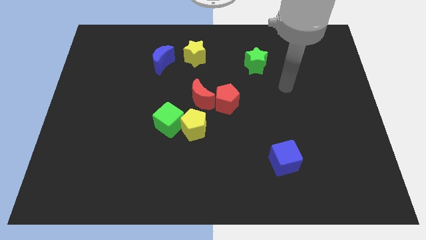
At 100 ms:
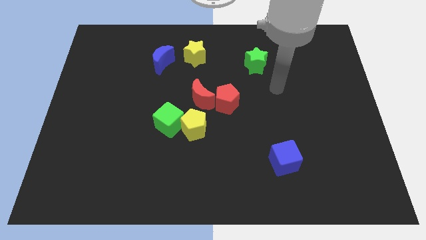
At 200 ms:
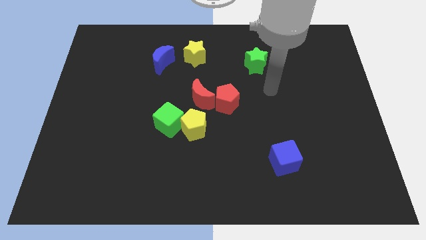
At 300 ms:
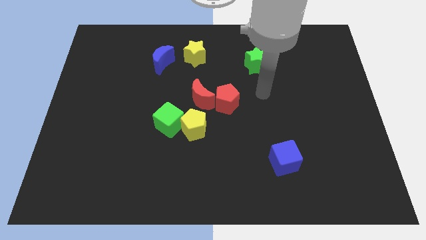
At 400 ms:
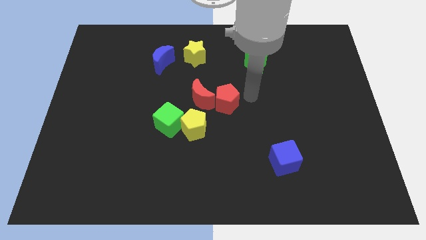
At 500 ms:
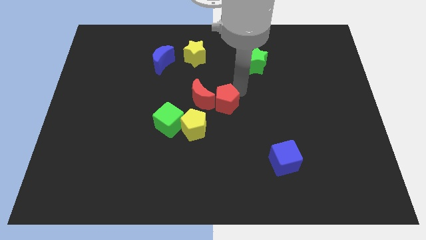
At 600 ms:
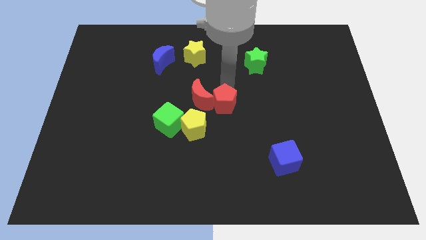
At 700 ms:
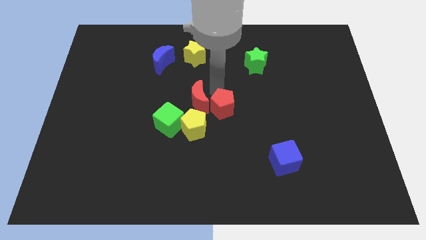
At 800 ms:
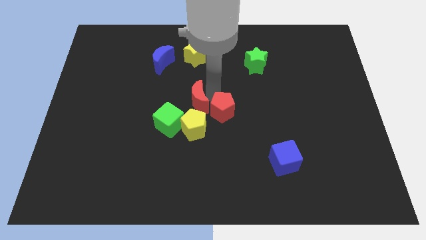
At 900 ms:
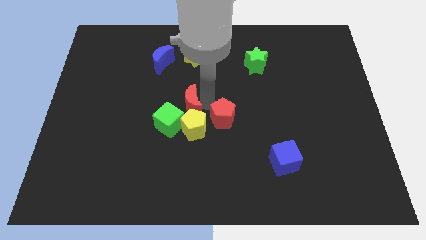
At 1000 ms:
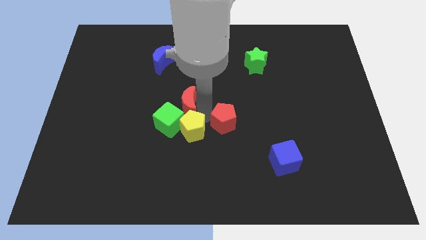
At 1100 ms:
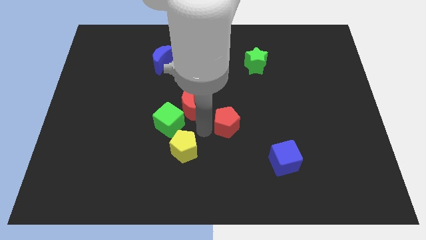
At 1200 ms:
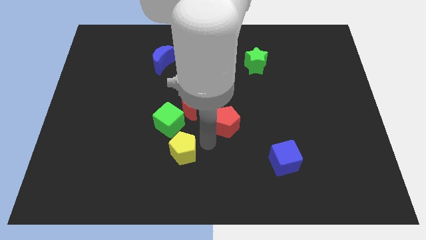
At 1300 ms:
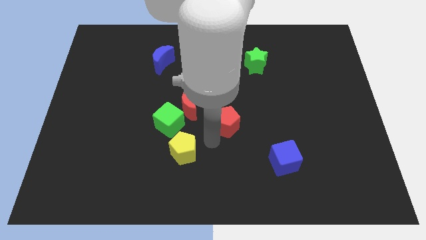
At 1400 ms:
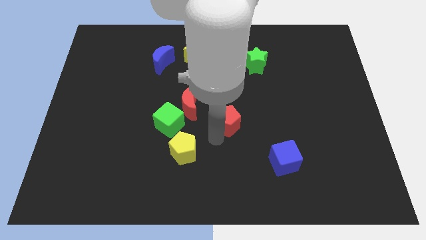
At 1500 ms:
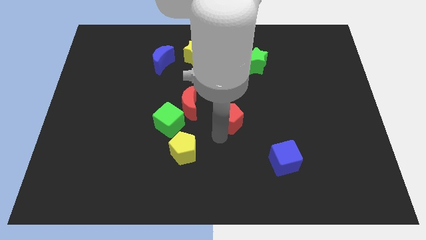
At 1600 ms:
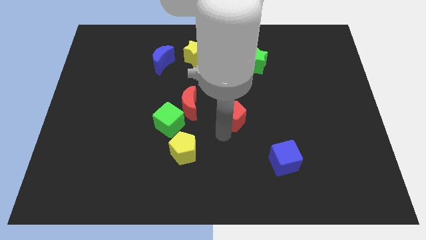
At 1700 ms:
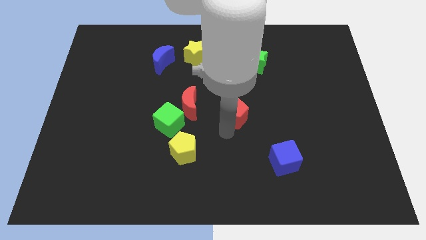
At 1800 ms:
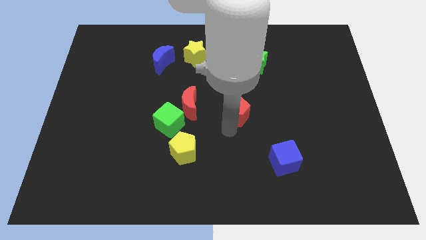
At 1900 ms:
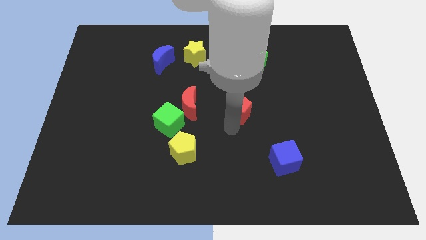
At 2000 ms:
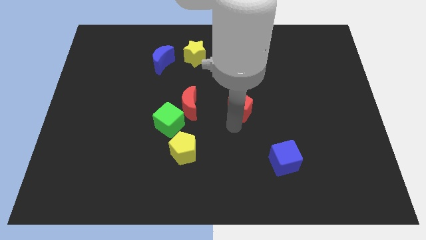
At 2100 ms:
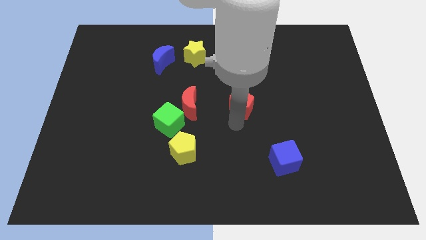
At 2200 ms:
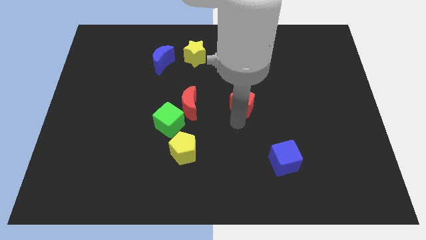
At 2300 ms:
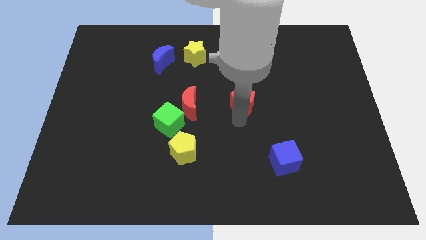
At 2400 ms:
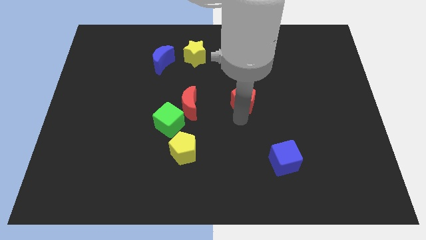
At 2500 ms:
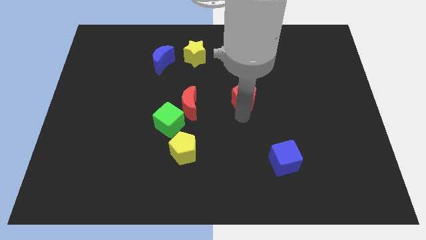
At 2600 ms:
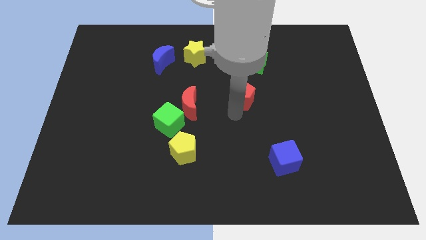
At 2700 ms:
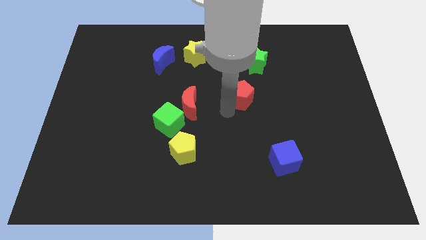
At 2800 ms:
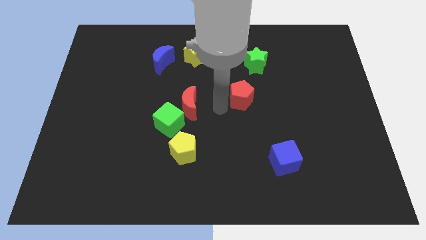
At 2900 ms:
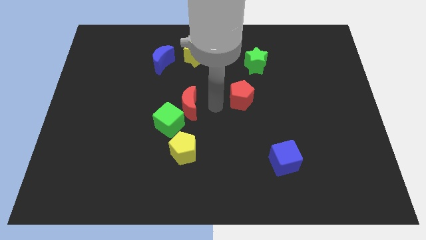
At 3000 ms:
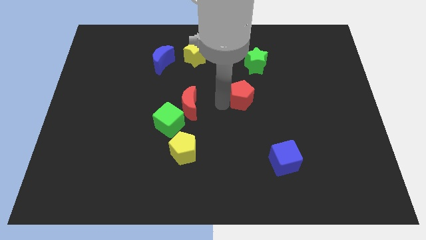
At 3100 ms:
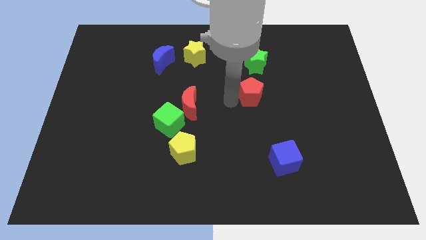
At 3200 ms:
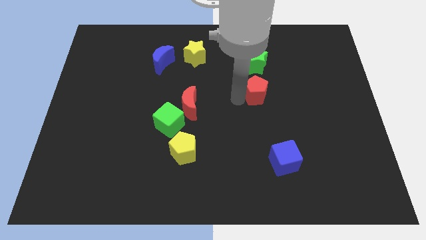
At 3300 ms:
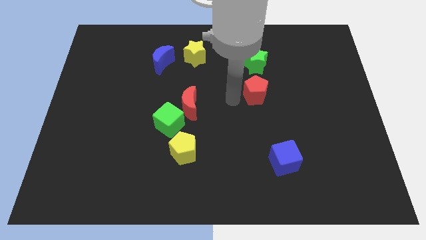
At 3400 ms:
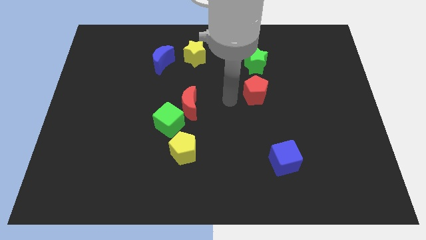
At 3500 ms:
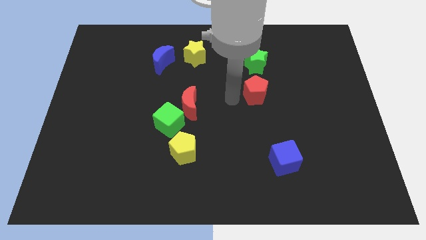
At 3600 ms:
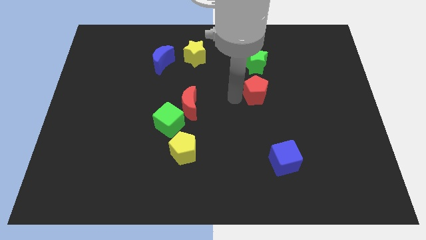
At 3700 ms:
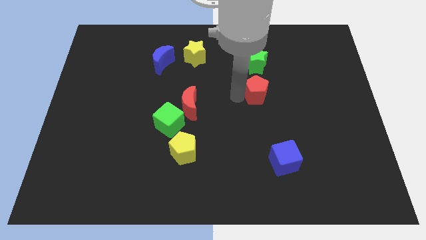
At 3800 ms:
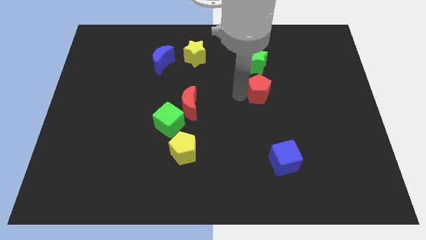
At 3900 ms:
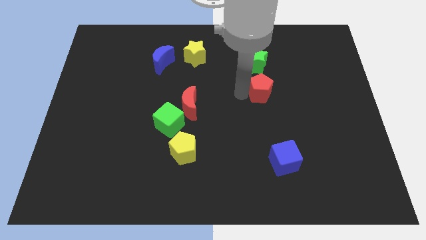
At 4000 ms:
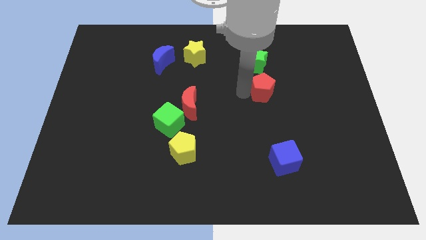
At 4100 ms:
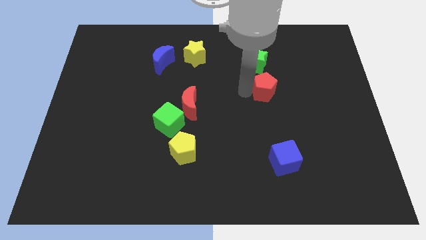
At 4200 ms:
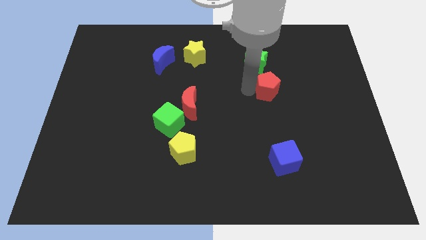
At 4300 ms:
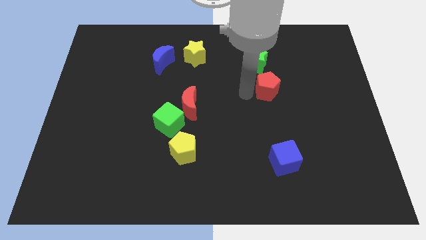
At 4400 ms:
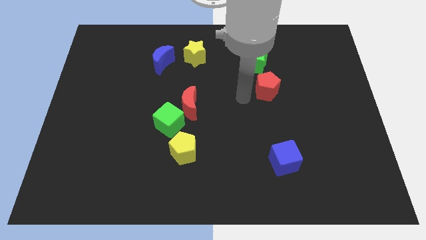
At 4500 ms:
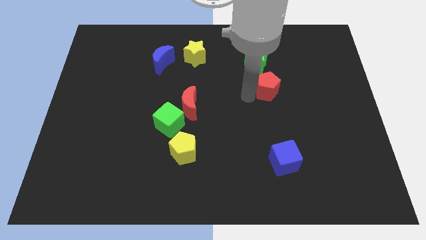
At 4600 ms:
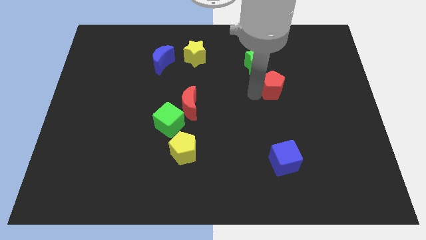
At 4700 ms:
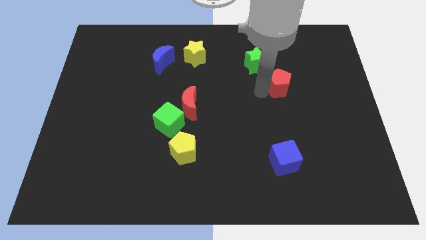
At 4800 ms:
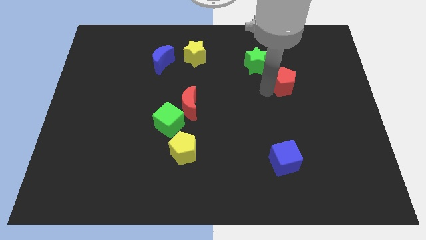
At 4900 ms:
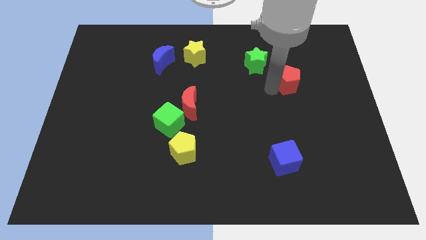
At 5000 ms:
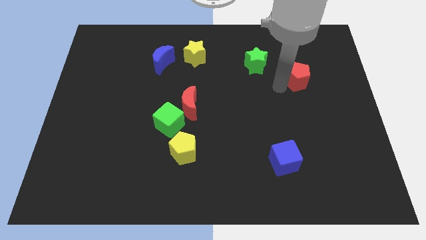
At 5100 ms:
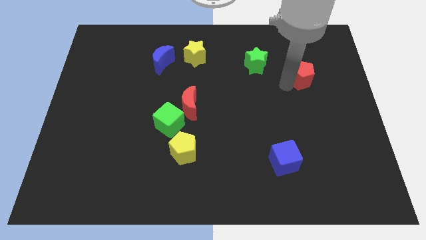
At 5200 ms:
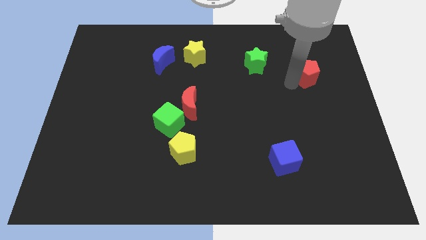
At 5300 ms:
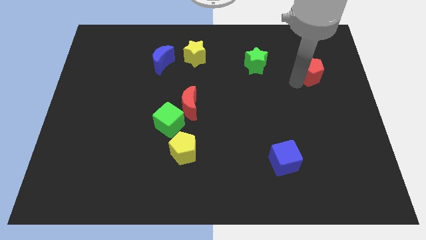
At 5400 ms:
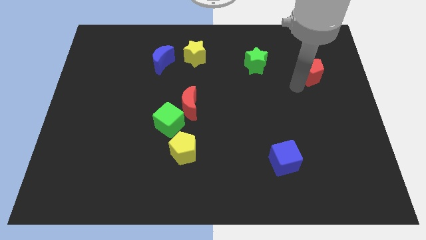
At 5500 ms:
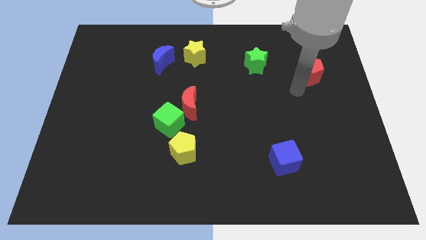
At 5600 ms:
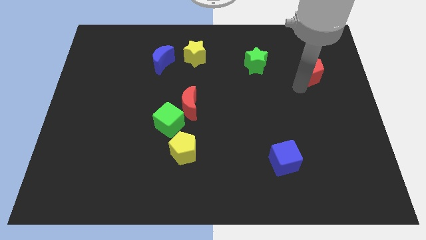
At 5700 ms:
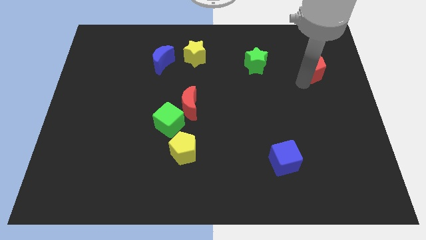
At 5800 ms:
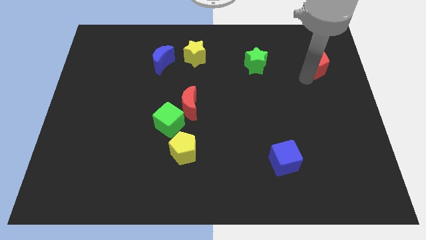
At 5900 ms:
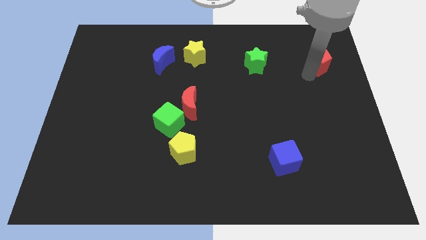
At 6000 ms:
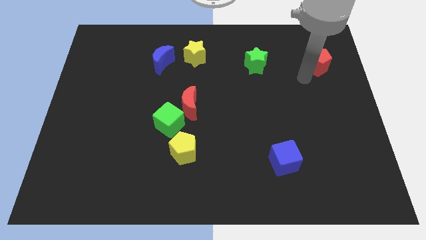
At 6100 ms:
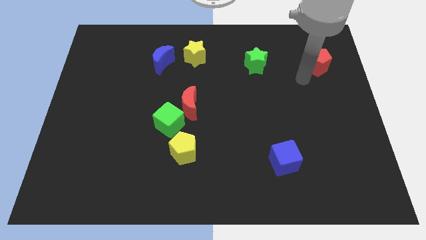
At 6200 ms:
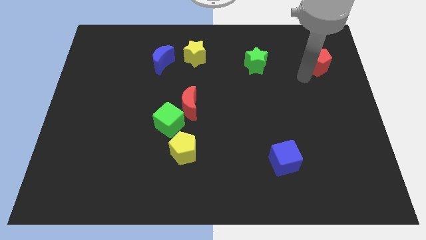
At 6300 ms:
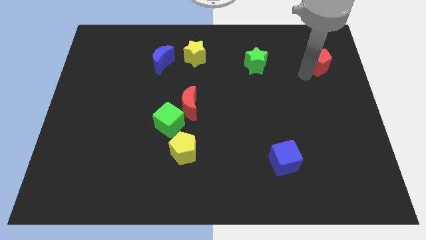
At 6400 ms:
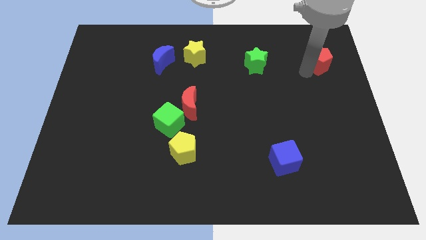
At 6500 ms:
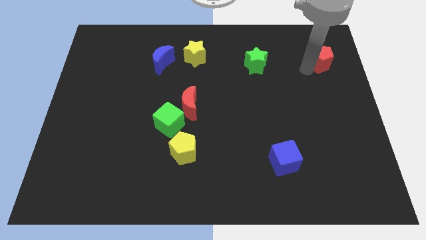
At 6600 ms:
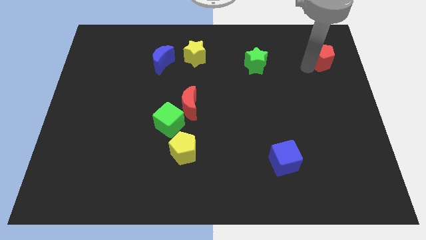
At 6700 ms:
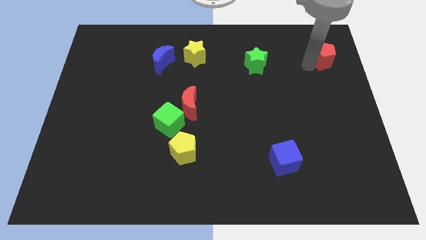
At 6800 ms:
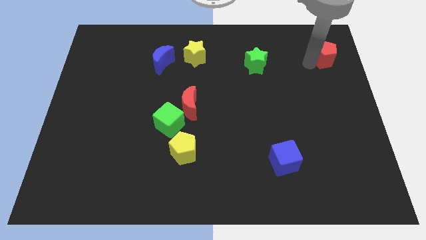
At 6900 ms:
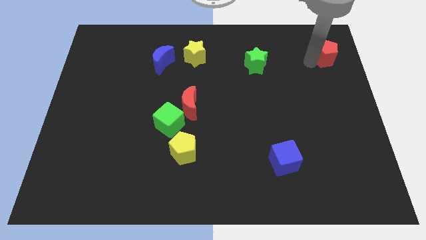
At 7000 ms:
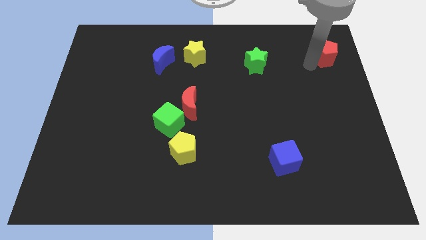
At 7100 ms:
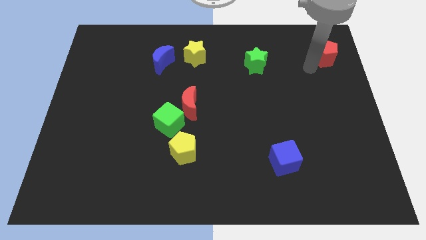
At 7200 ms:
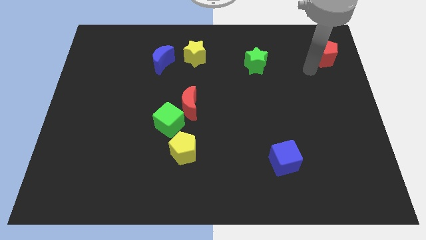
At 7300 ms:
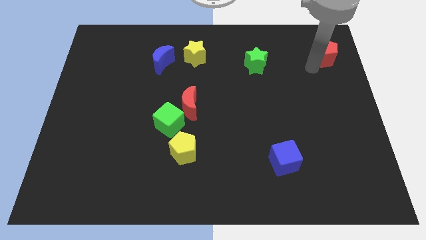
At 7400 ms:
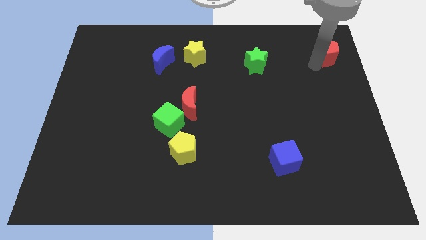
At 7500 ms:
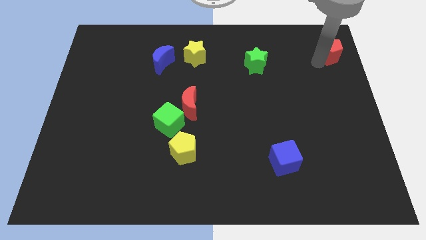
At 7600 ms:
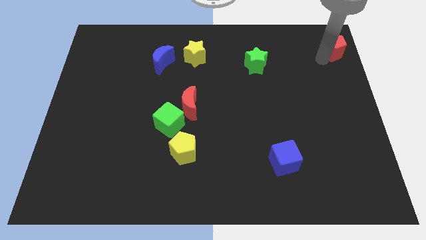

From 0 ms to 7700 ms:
push the red pentagon to the top right corner
